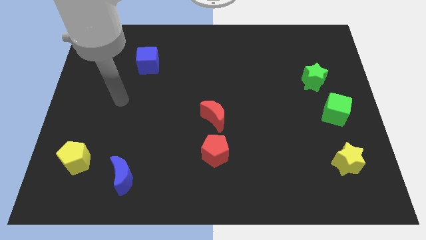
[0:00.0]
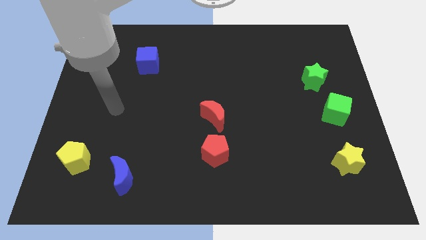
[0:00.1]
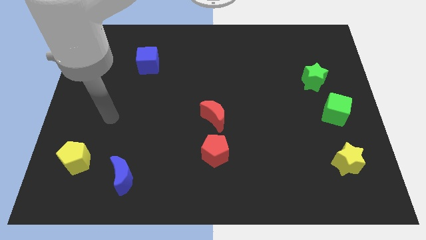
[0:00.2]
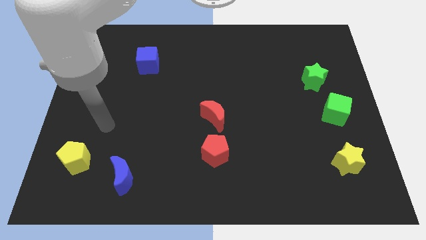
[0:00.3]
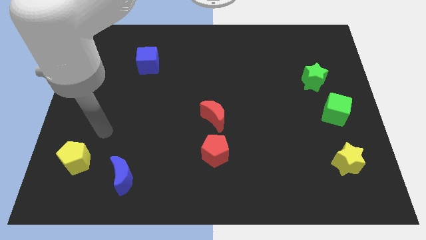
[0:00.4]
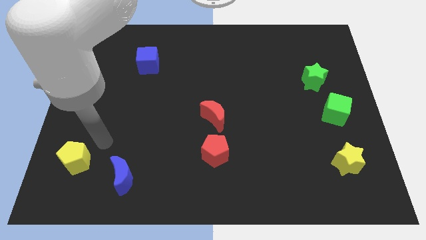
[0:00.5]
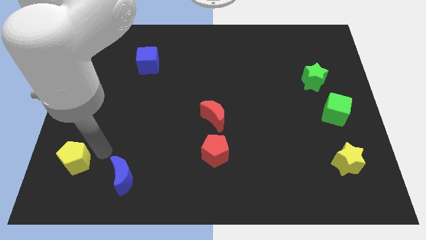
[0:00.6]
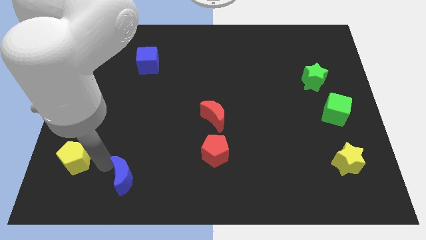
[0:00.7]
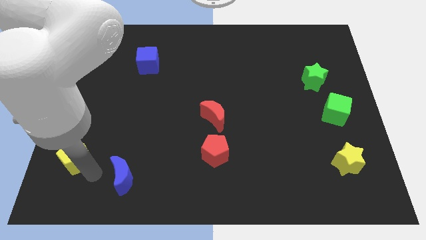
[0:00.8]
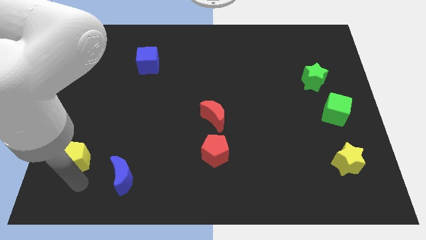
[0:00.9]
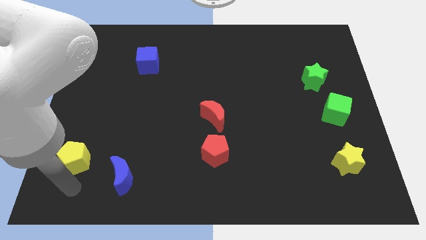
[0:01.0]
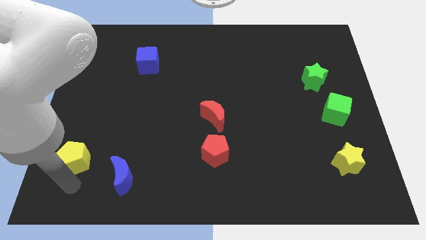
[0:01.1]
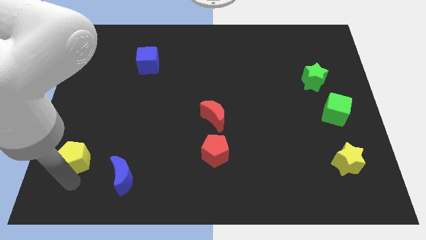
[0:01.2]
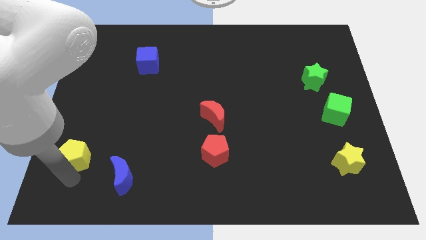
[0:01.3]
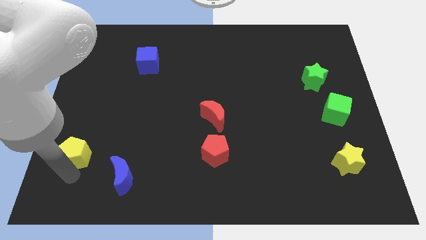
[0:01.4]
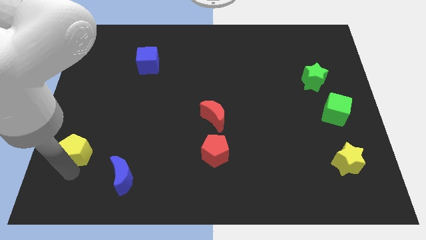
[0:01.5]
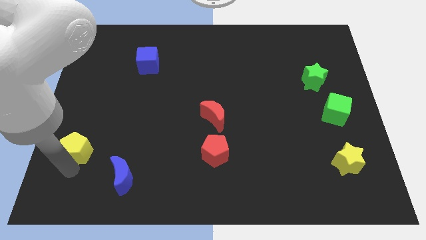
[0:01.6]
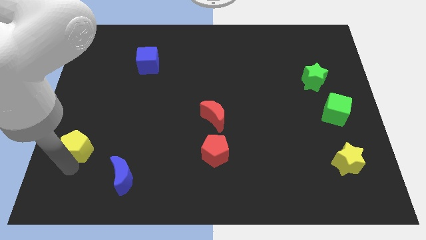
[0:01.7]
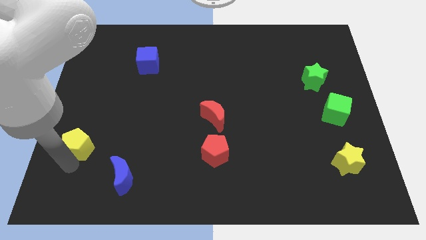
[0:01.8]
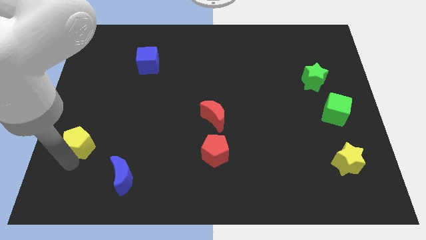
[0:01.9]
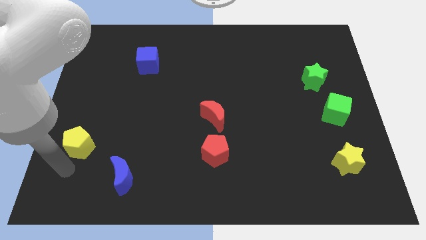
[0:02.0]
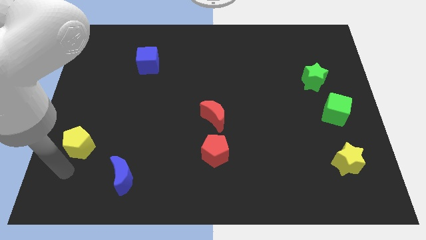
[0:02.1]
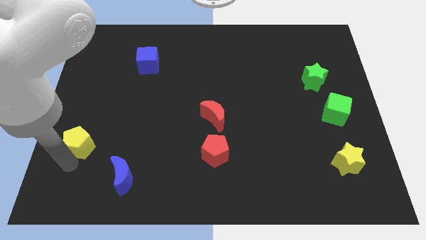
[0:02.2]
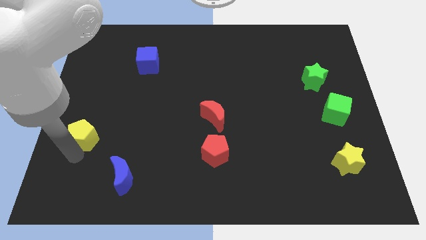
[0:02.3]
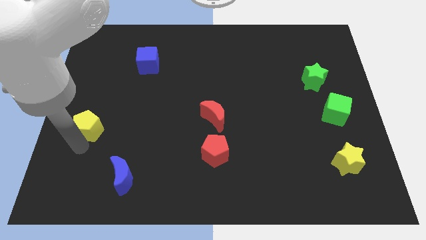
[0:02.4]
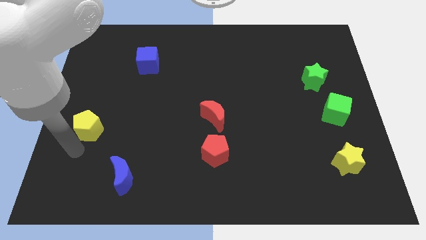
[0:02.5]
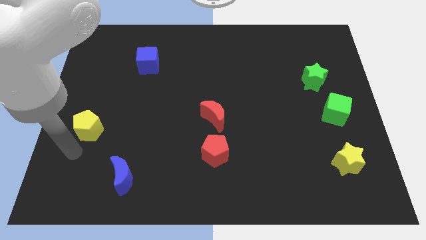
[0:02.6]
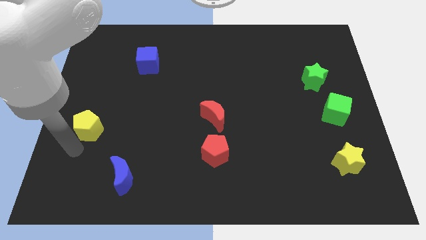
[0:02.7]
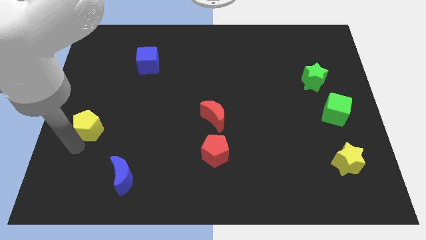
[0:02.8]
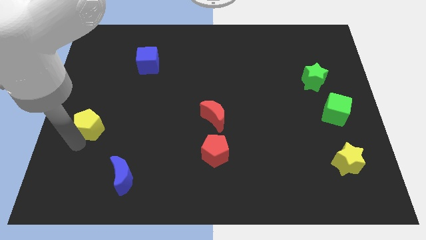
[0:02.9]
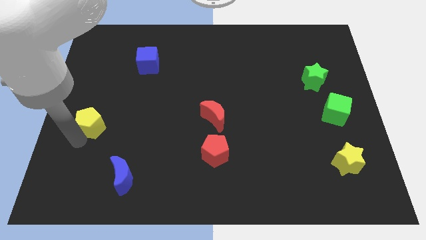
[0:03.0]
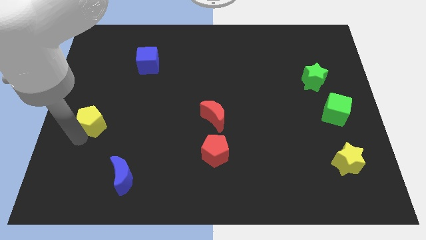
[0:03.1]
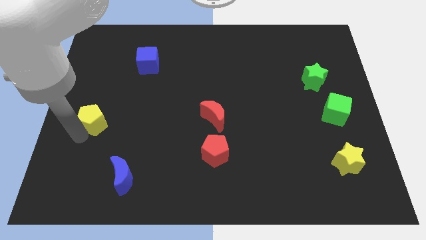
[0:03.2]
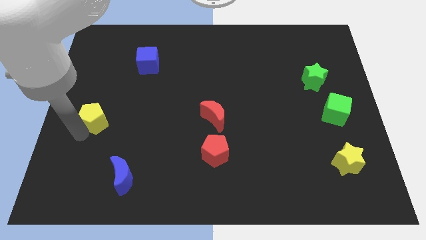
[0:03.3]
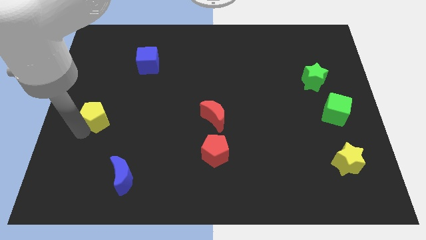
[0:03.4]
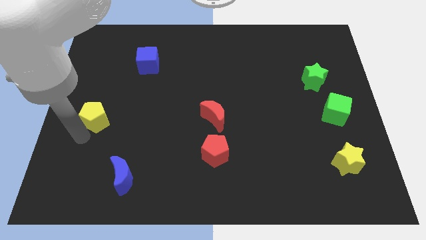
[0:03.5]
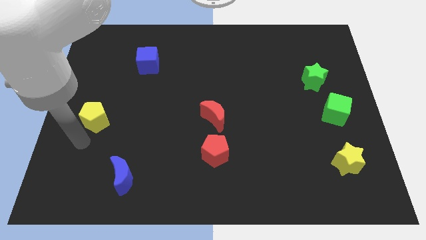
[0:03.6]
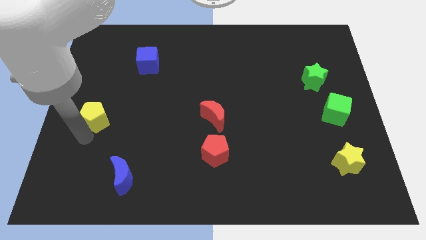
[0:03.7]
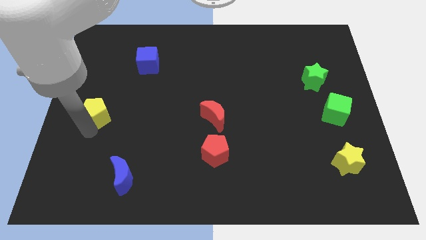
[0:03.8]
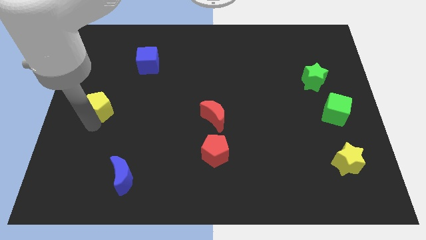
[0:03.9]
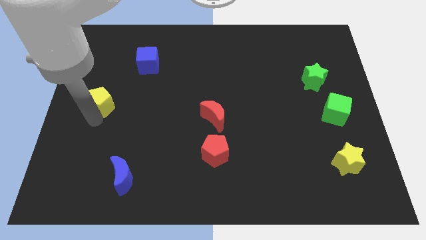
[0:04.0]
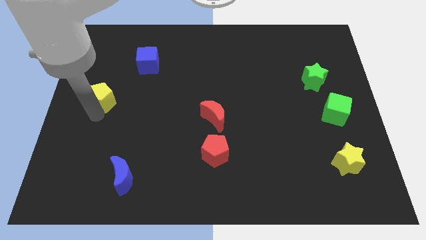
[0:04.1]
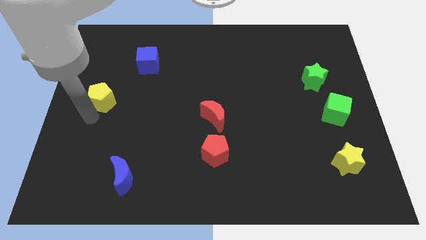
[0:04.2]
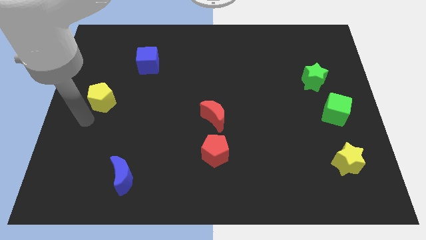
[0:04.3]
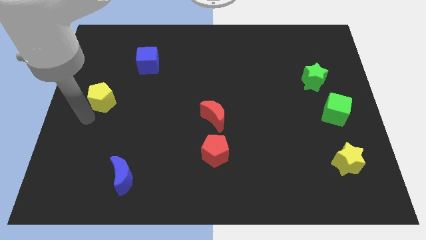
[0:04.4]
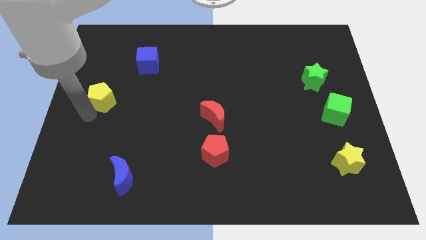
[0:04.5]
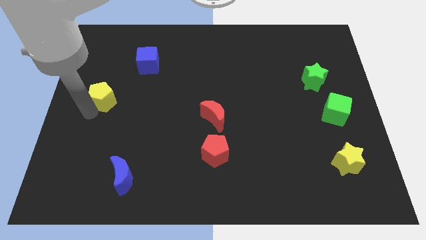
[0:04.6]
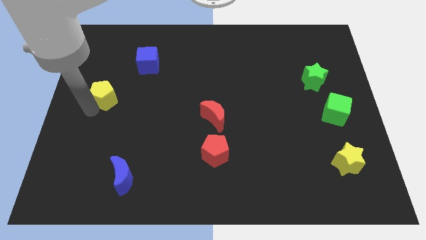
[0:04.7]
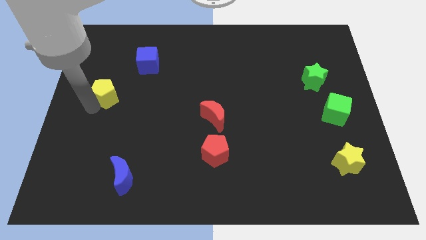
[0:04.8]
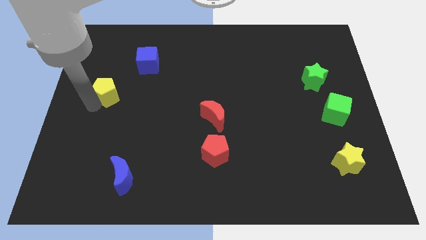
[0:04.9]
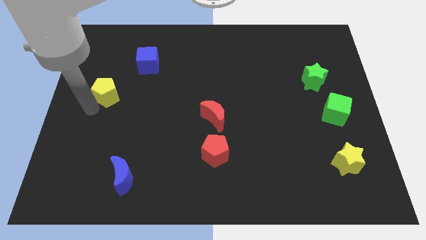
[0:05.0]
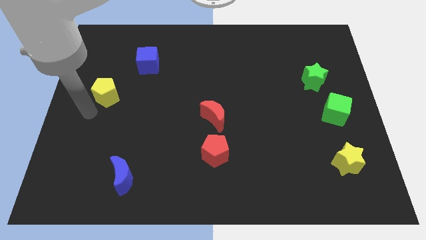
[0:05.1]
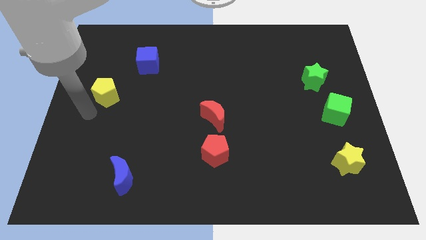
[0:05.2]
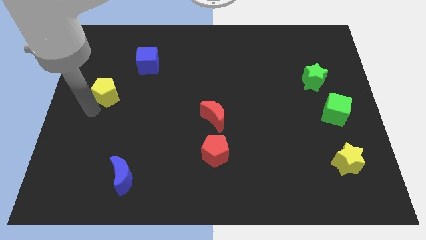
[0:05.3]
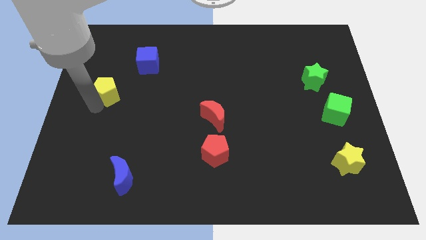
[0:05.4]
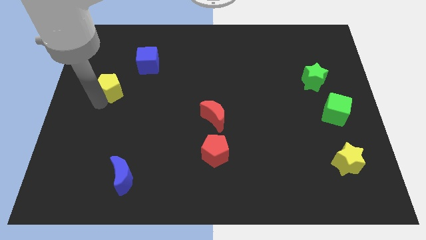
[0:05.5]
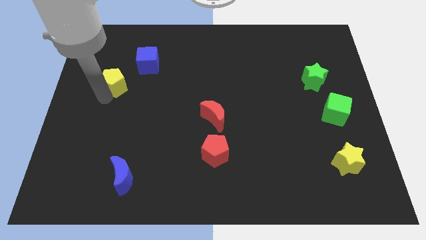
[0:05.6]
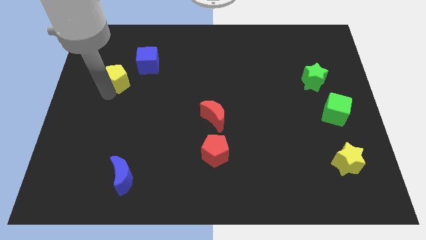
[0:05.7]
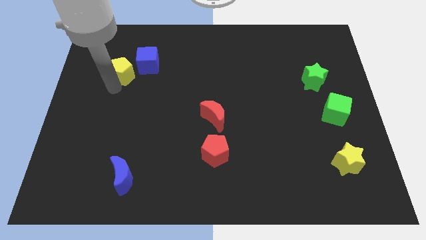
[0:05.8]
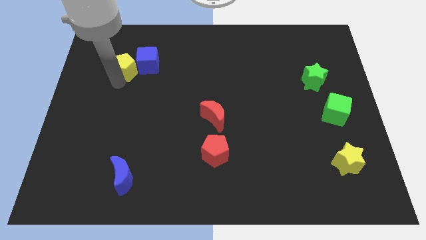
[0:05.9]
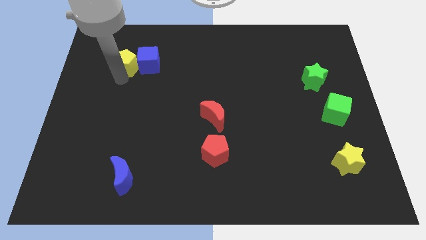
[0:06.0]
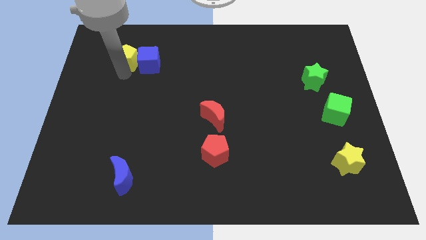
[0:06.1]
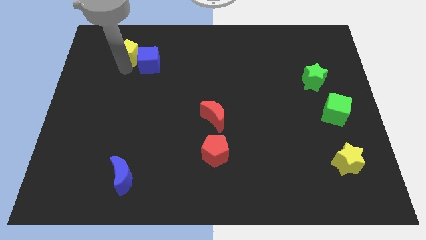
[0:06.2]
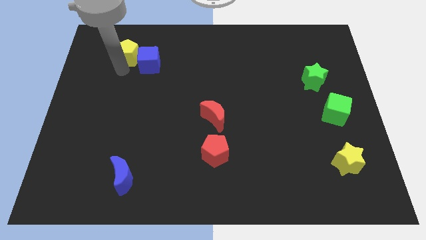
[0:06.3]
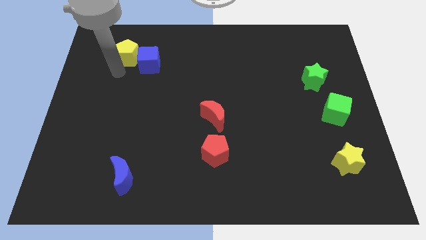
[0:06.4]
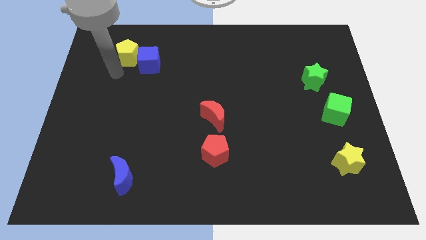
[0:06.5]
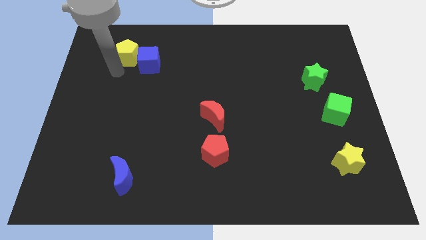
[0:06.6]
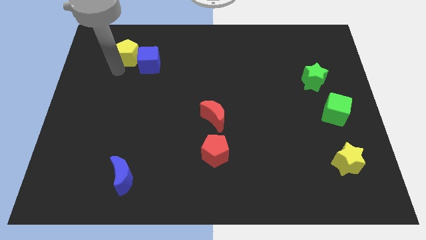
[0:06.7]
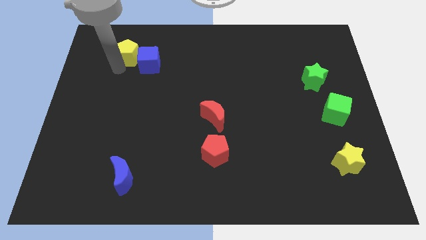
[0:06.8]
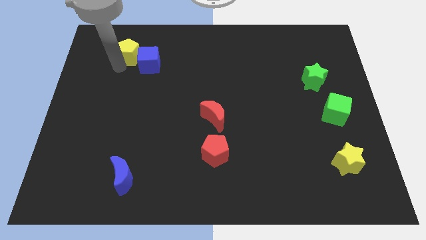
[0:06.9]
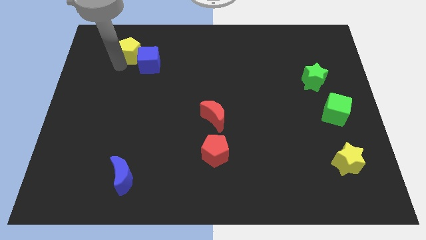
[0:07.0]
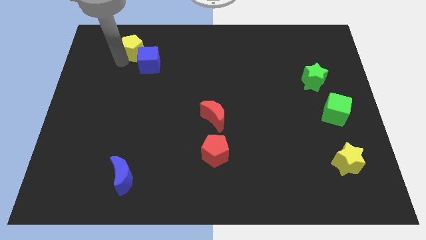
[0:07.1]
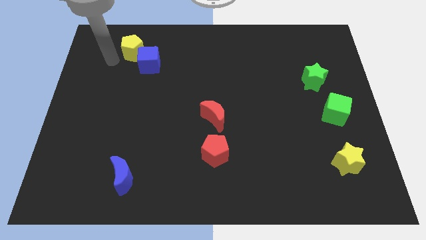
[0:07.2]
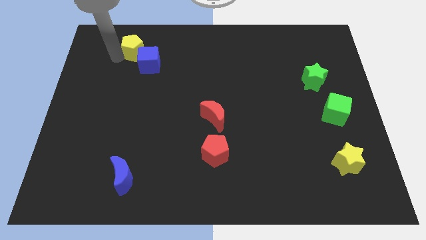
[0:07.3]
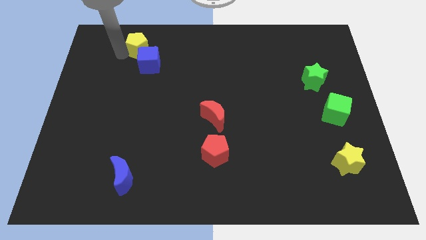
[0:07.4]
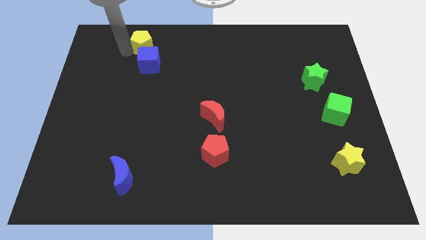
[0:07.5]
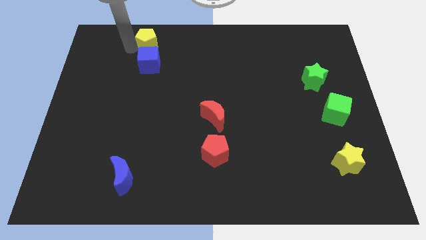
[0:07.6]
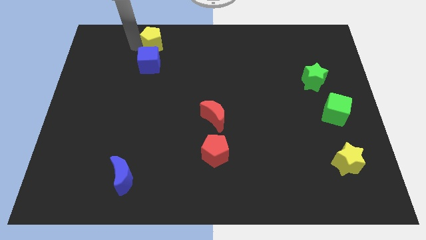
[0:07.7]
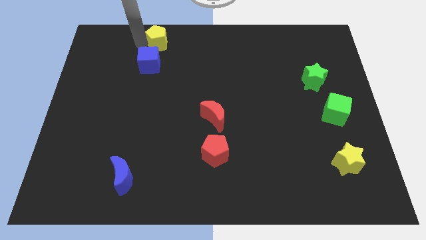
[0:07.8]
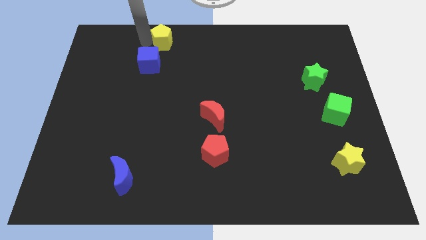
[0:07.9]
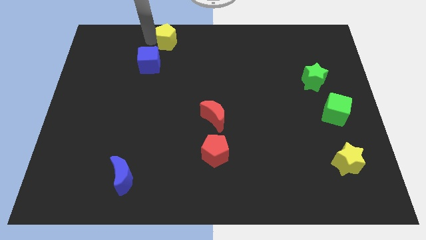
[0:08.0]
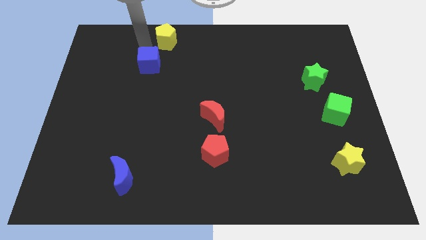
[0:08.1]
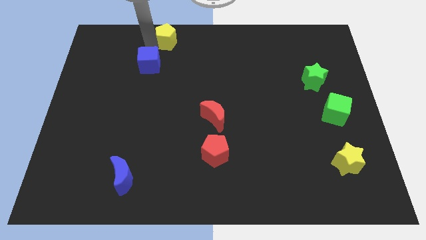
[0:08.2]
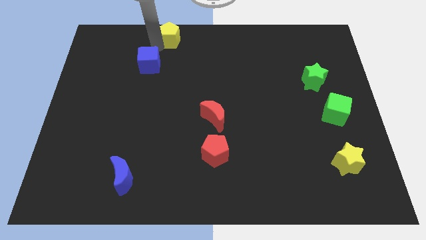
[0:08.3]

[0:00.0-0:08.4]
put the yellow pentagon to the top
